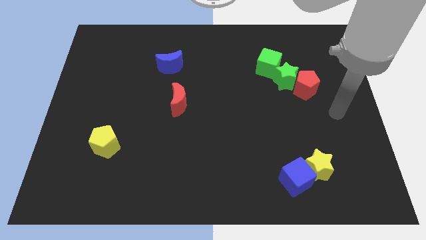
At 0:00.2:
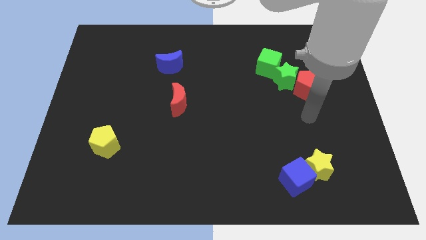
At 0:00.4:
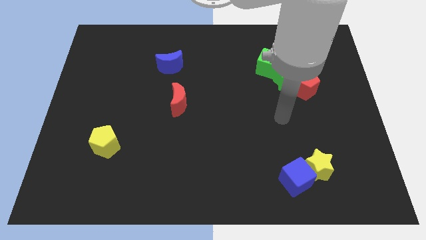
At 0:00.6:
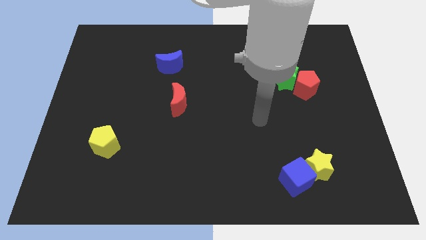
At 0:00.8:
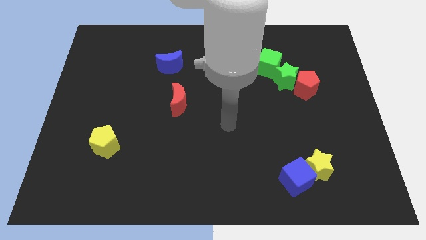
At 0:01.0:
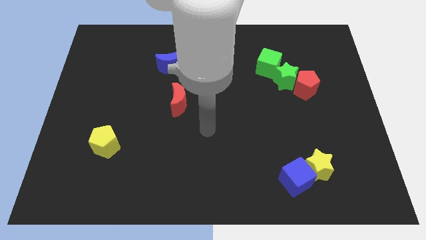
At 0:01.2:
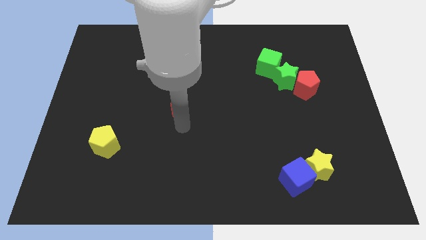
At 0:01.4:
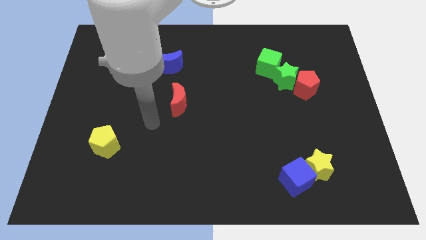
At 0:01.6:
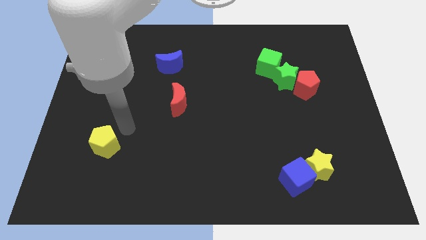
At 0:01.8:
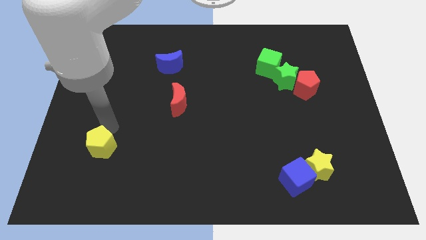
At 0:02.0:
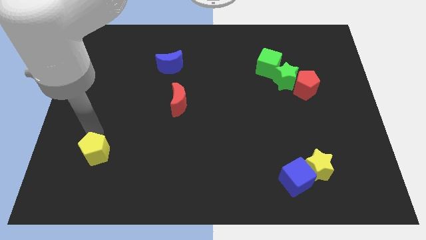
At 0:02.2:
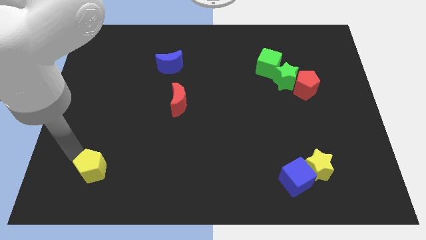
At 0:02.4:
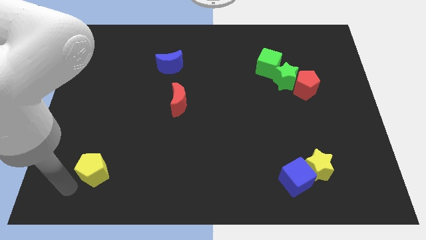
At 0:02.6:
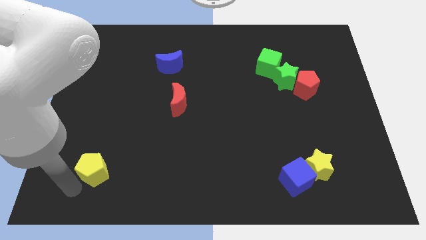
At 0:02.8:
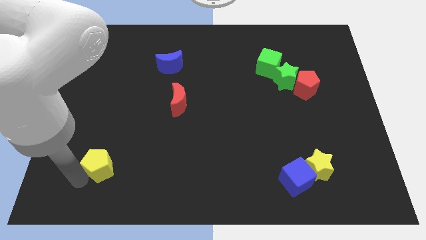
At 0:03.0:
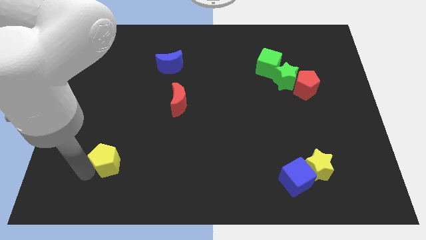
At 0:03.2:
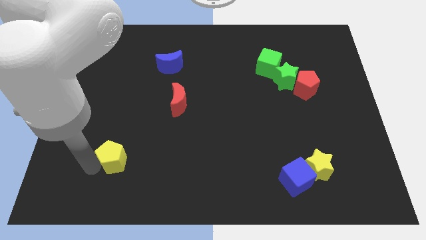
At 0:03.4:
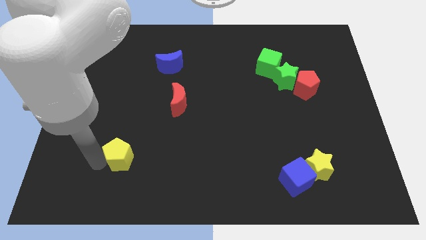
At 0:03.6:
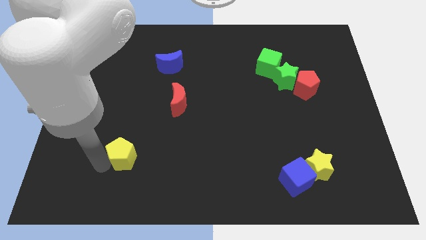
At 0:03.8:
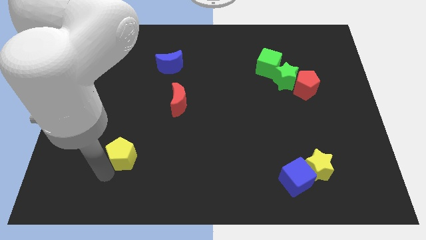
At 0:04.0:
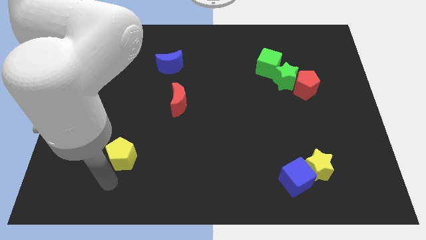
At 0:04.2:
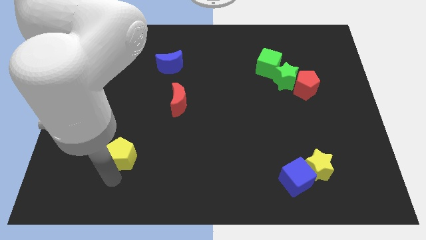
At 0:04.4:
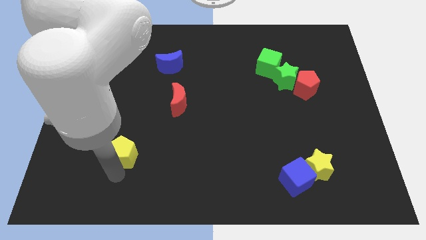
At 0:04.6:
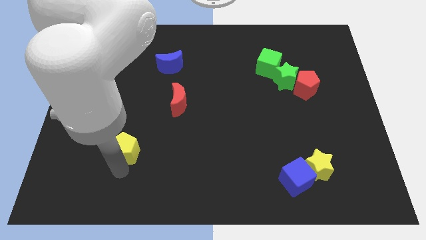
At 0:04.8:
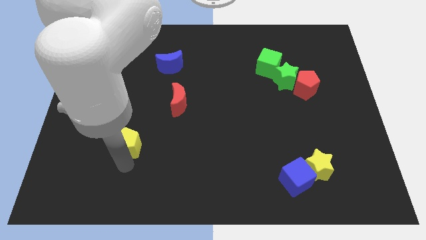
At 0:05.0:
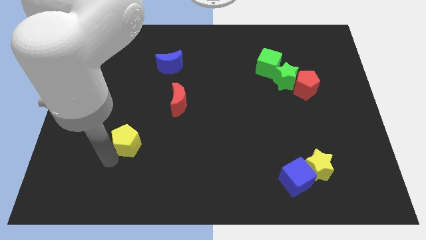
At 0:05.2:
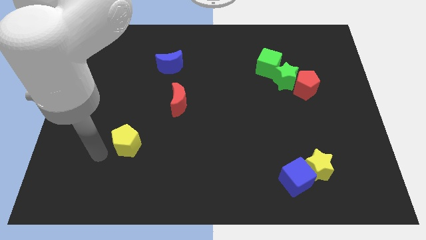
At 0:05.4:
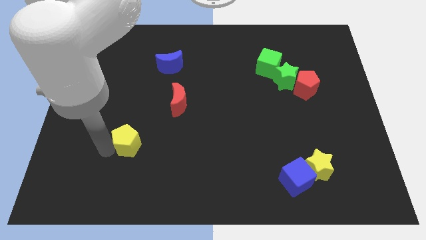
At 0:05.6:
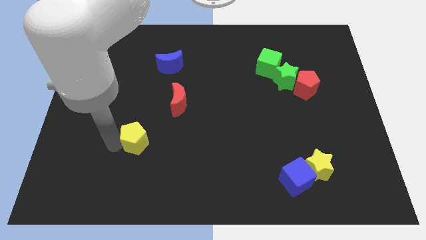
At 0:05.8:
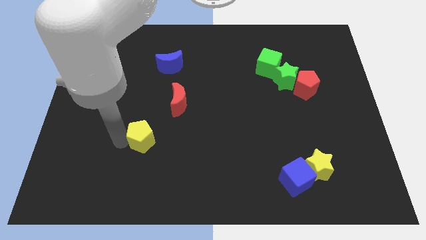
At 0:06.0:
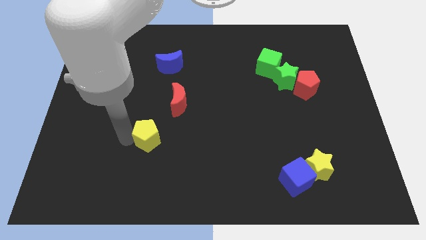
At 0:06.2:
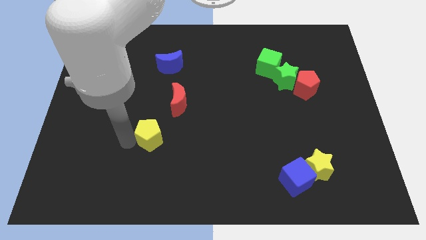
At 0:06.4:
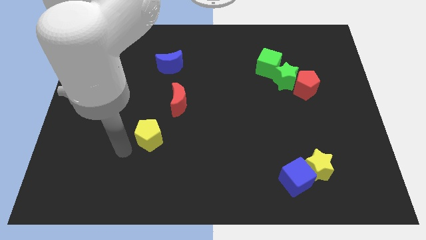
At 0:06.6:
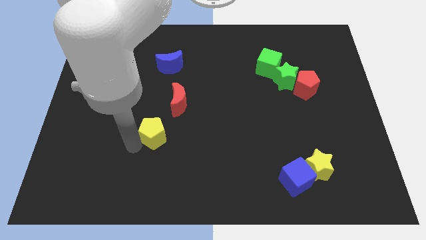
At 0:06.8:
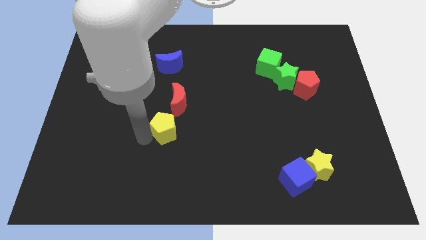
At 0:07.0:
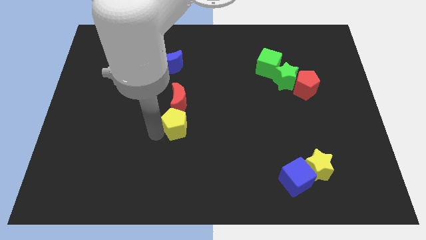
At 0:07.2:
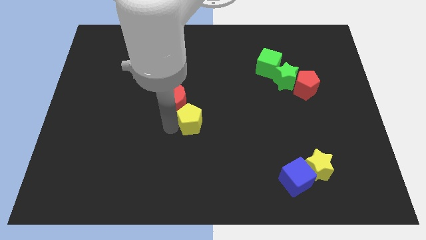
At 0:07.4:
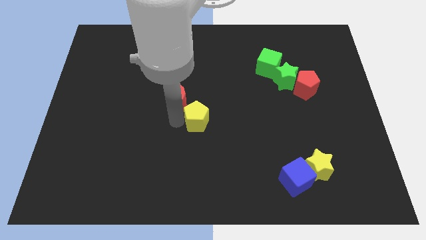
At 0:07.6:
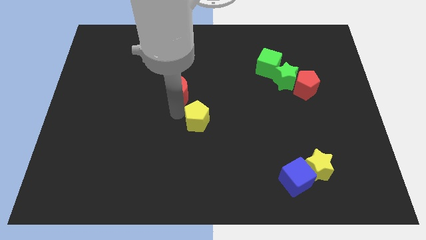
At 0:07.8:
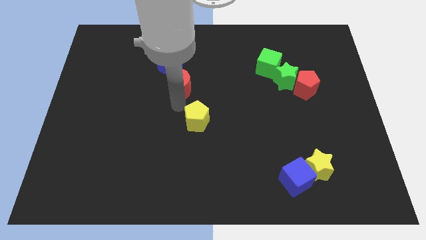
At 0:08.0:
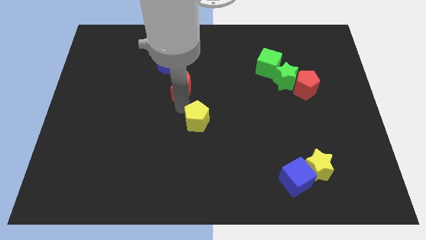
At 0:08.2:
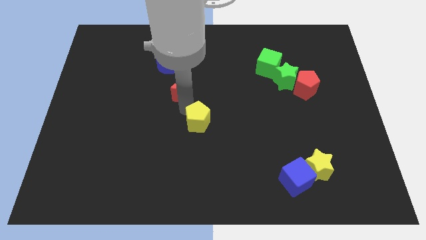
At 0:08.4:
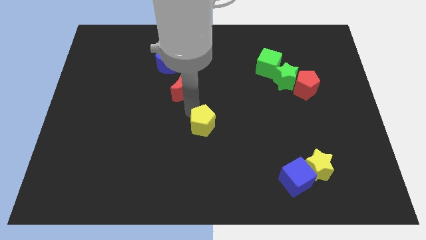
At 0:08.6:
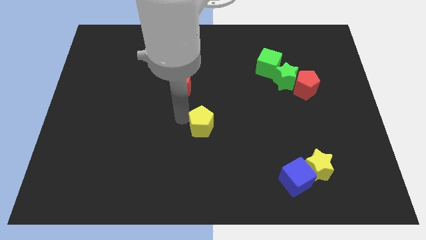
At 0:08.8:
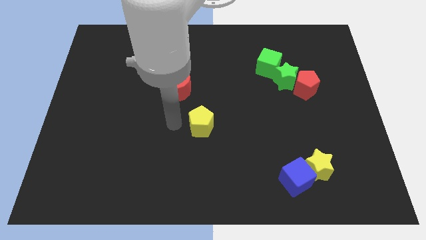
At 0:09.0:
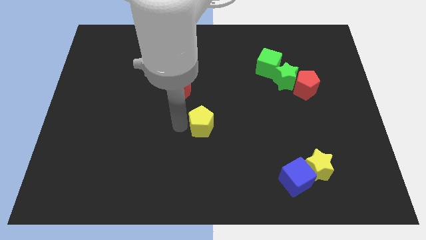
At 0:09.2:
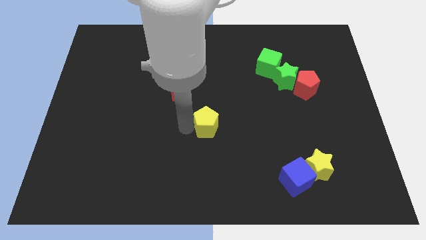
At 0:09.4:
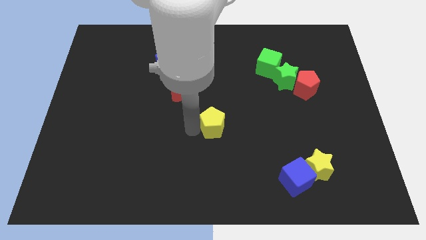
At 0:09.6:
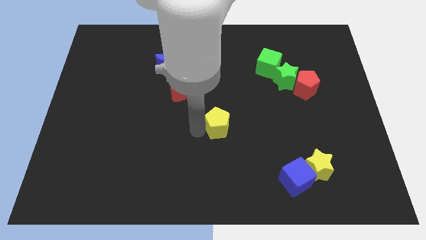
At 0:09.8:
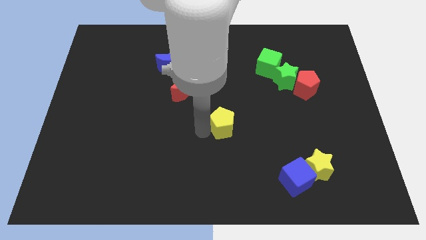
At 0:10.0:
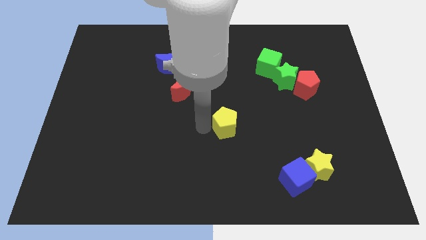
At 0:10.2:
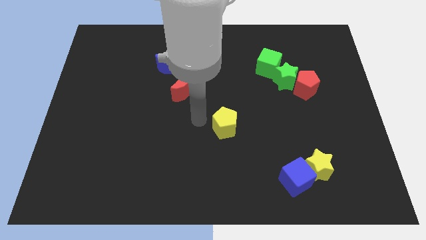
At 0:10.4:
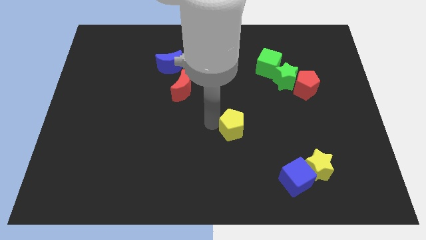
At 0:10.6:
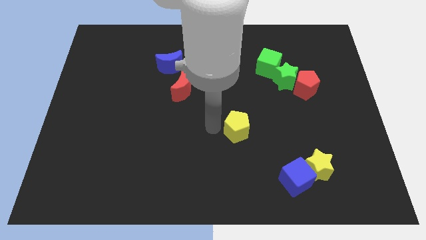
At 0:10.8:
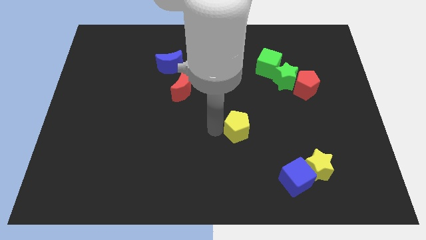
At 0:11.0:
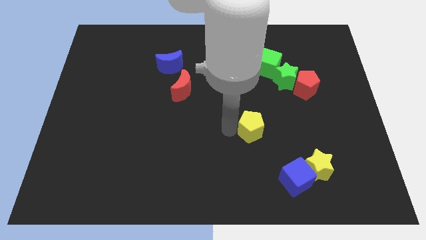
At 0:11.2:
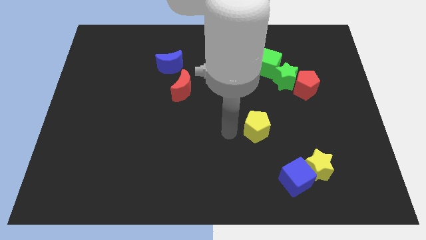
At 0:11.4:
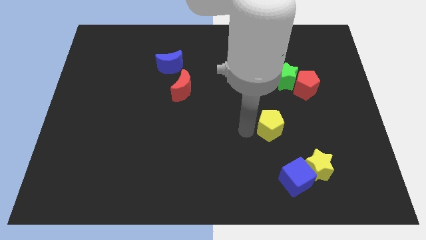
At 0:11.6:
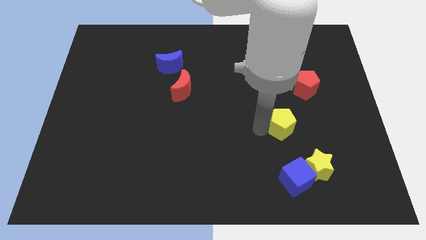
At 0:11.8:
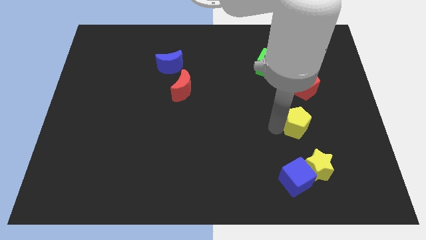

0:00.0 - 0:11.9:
move the yellow pentagon to the bottom of the red pentagon

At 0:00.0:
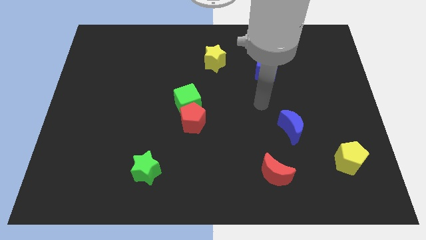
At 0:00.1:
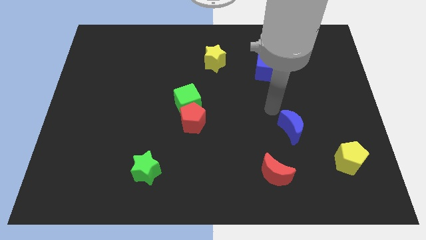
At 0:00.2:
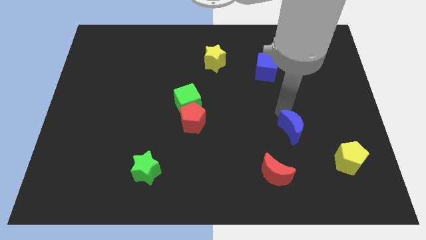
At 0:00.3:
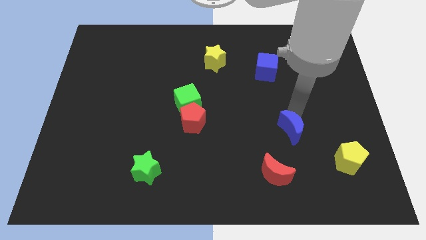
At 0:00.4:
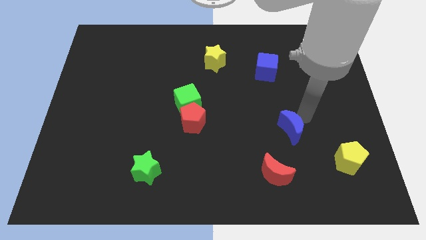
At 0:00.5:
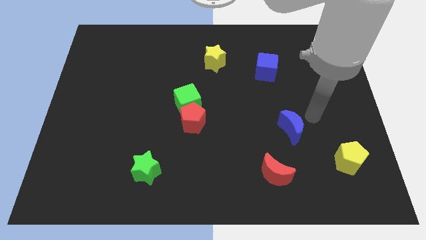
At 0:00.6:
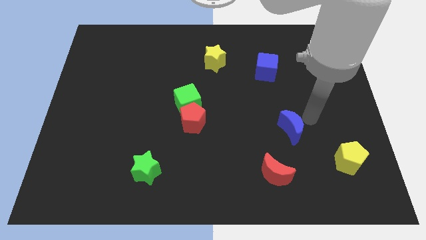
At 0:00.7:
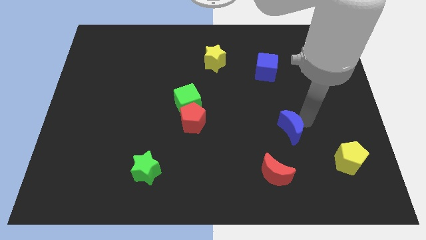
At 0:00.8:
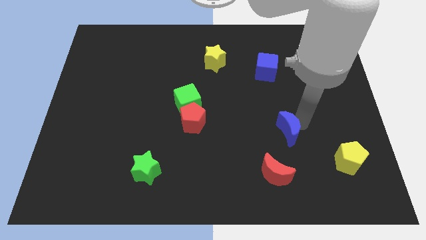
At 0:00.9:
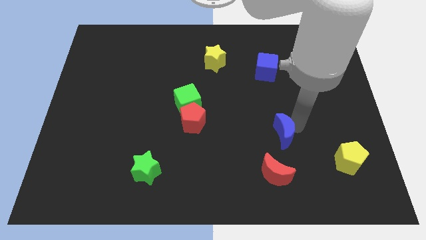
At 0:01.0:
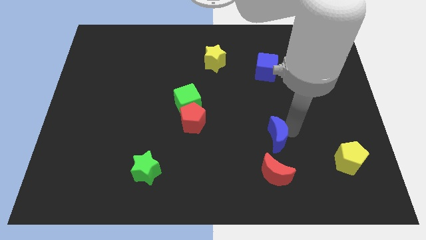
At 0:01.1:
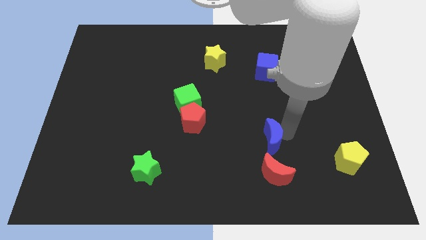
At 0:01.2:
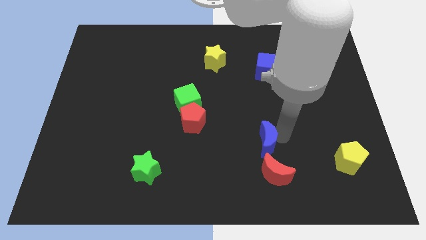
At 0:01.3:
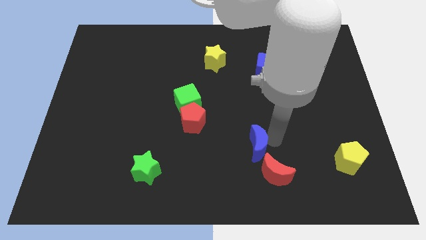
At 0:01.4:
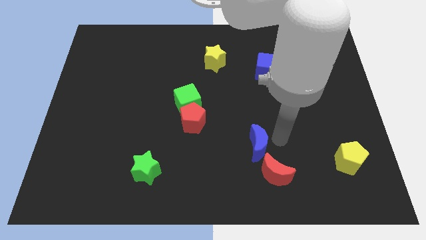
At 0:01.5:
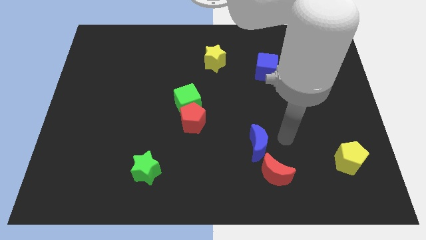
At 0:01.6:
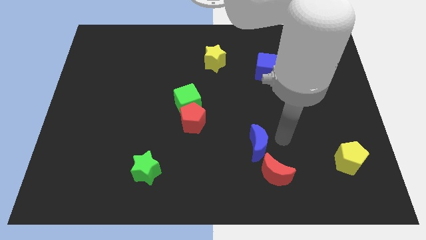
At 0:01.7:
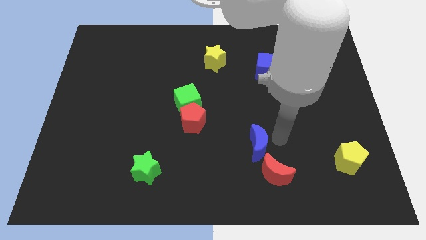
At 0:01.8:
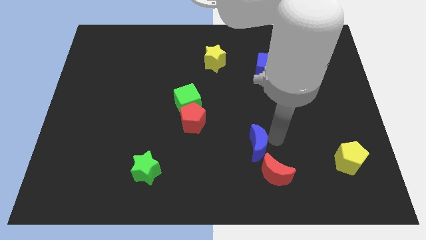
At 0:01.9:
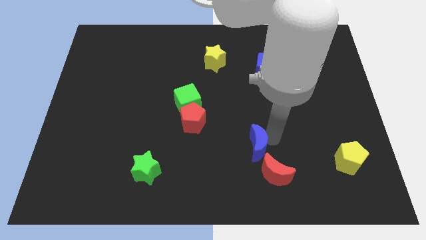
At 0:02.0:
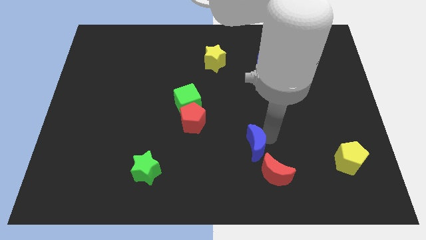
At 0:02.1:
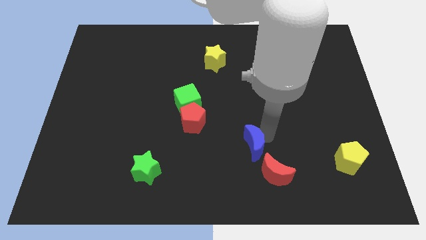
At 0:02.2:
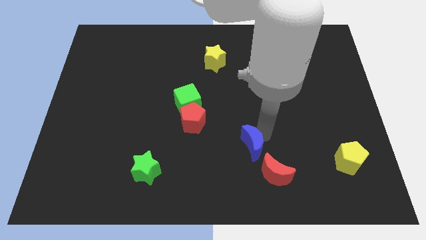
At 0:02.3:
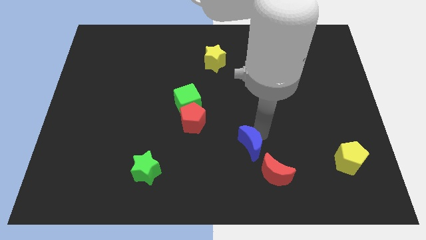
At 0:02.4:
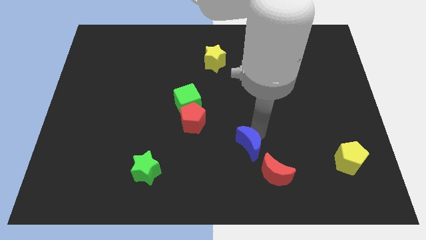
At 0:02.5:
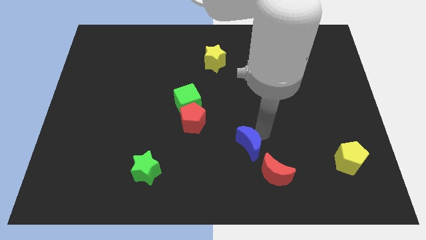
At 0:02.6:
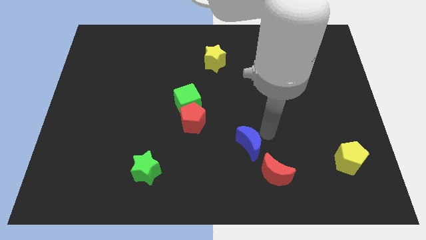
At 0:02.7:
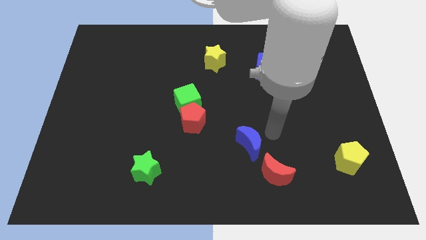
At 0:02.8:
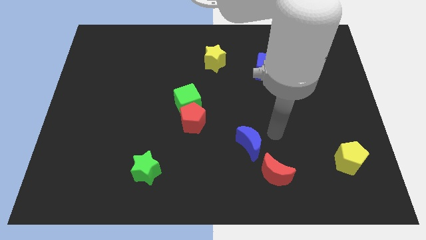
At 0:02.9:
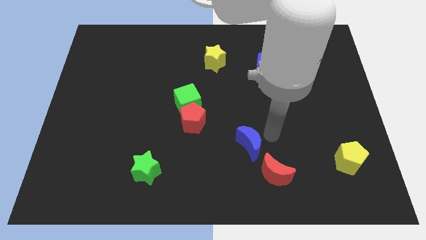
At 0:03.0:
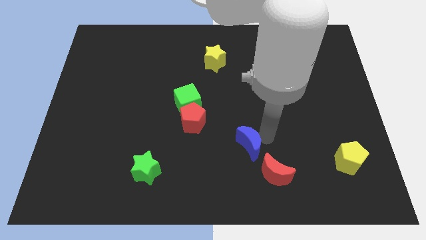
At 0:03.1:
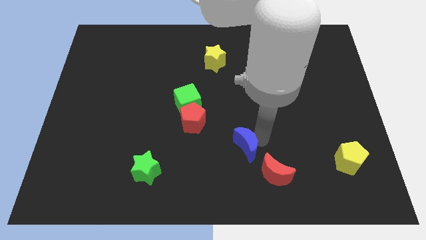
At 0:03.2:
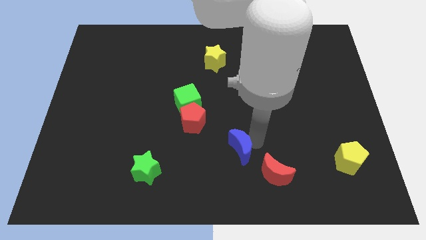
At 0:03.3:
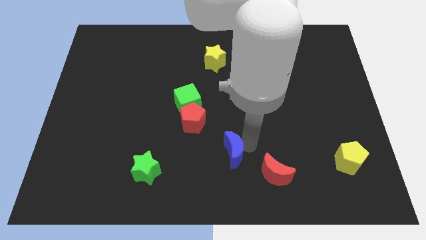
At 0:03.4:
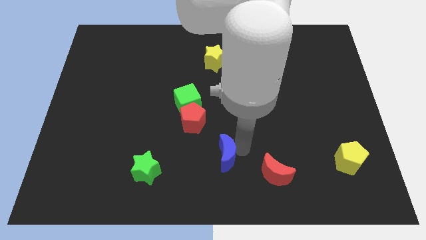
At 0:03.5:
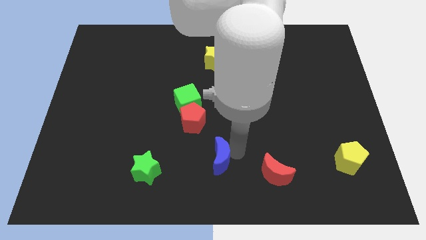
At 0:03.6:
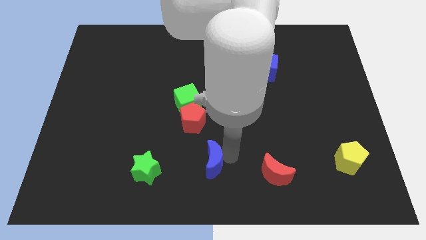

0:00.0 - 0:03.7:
put the blue moon below the red pentagon
